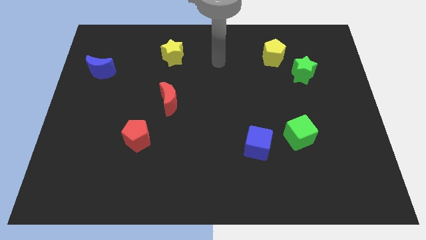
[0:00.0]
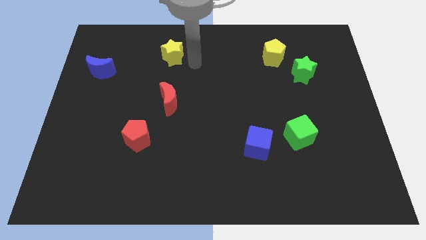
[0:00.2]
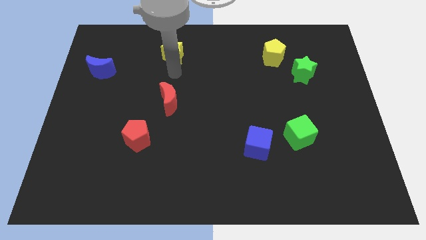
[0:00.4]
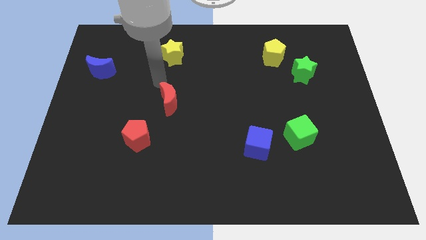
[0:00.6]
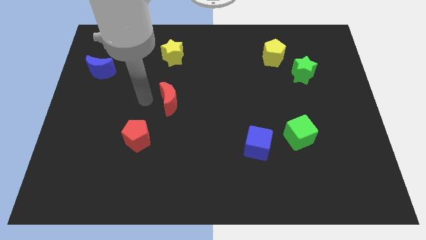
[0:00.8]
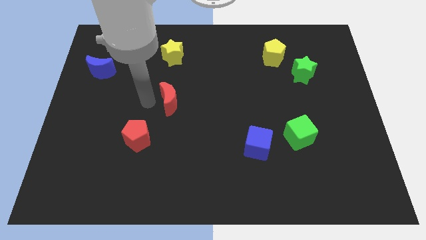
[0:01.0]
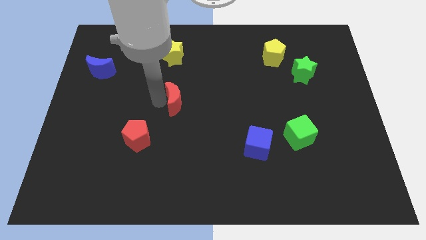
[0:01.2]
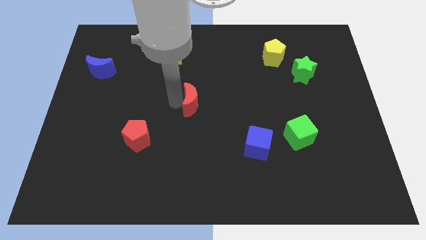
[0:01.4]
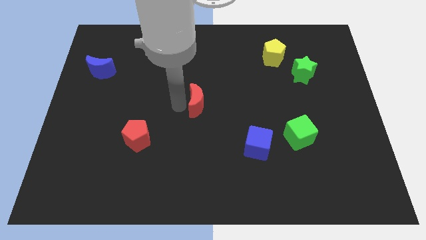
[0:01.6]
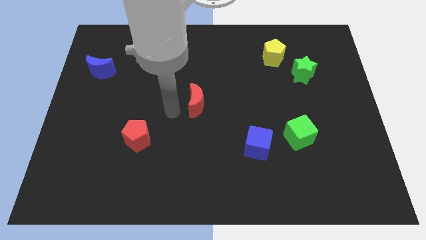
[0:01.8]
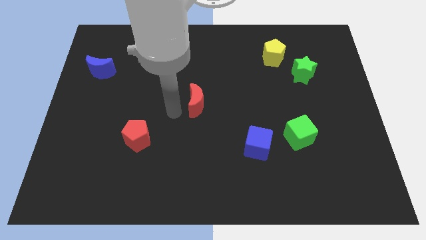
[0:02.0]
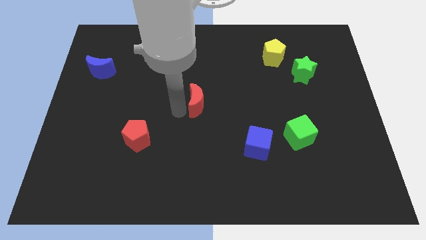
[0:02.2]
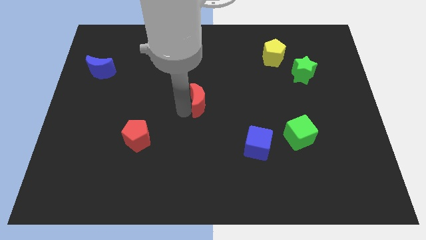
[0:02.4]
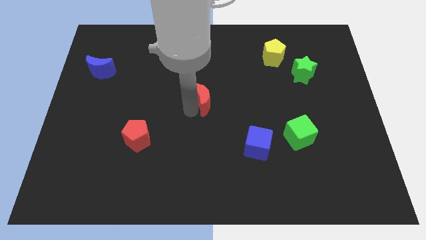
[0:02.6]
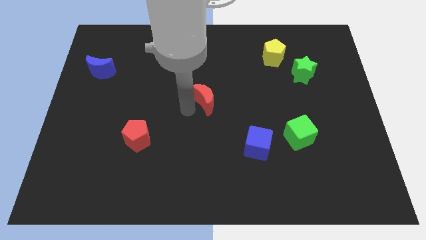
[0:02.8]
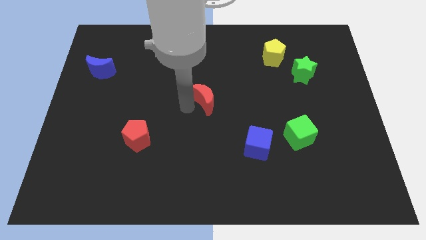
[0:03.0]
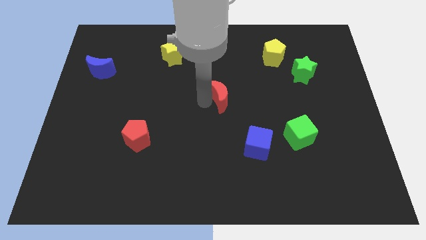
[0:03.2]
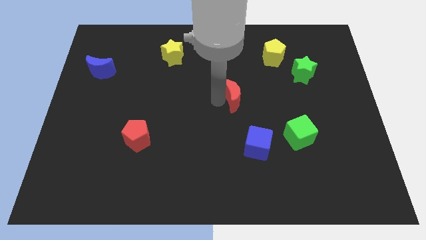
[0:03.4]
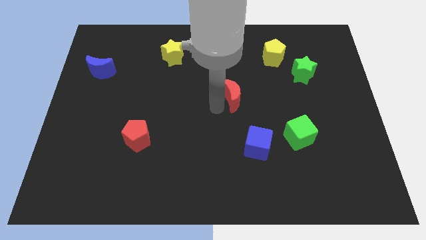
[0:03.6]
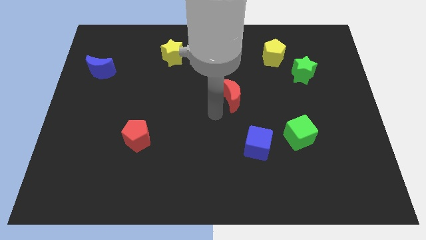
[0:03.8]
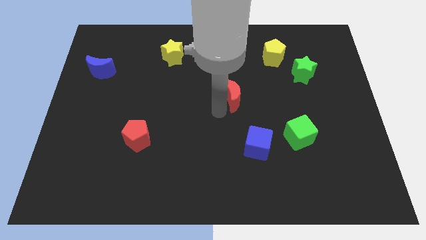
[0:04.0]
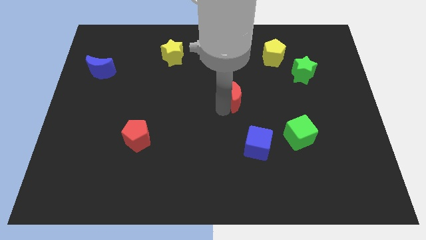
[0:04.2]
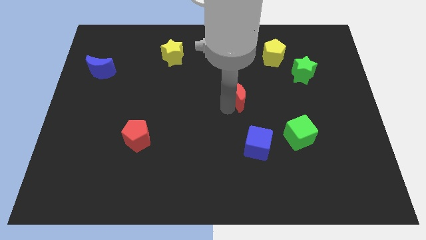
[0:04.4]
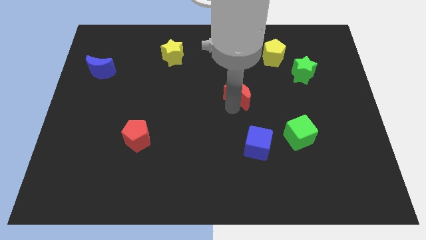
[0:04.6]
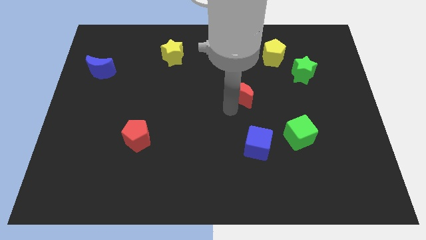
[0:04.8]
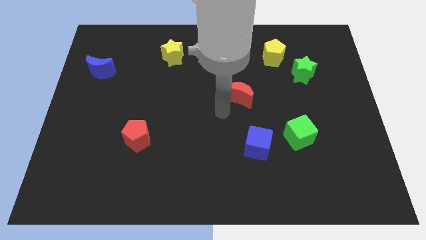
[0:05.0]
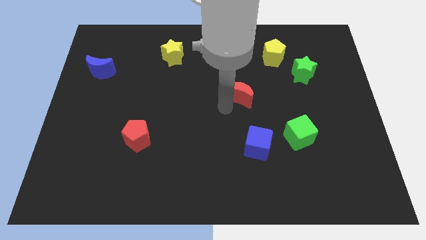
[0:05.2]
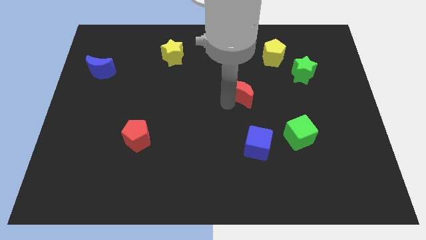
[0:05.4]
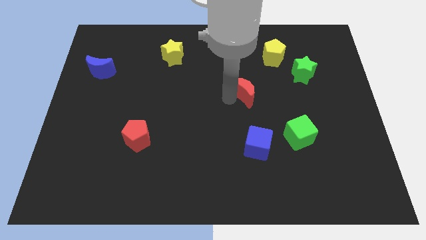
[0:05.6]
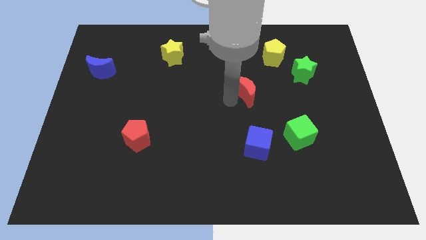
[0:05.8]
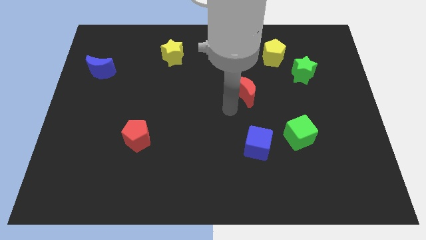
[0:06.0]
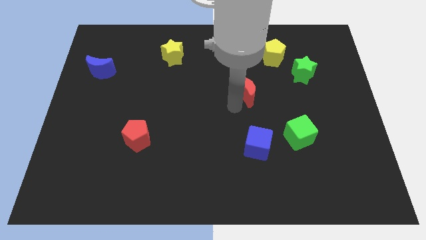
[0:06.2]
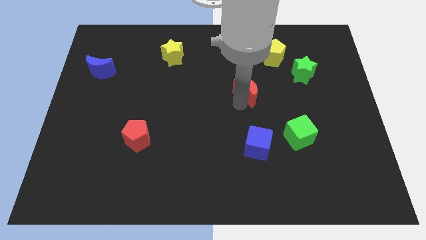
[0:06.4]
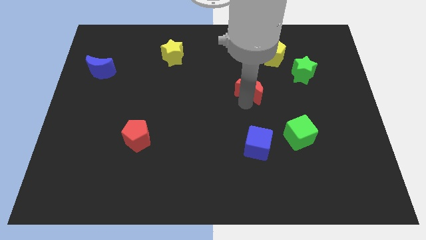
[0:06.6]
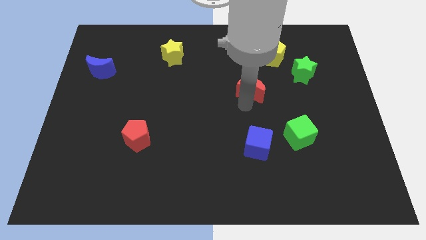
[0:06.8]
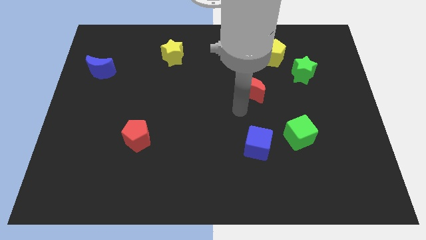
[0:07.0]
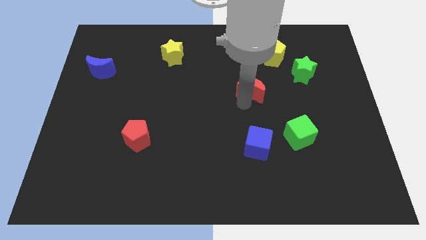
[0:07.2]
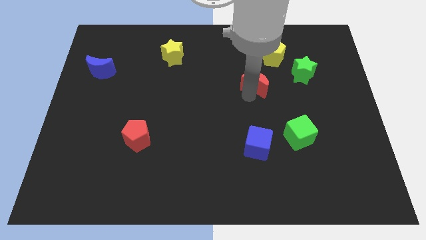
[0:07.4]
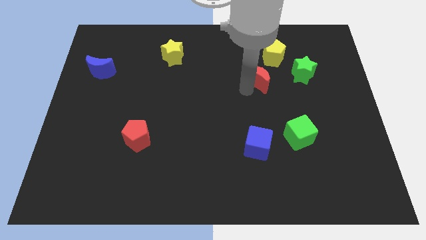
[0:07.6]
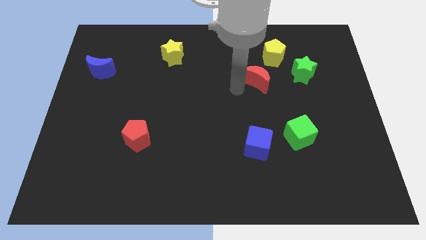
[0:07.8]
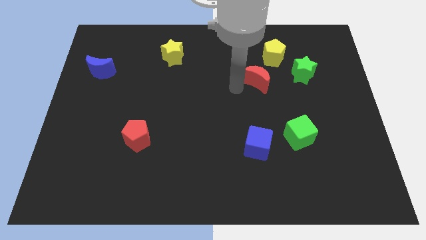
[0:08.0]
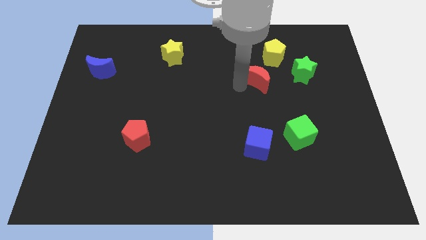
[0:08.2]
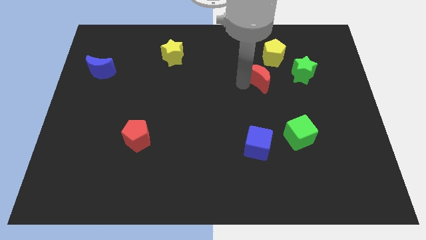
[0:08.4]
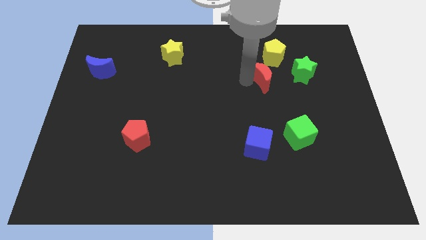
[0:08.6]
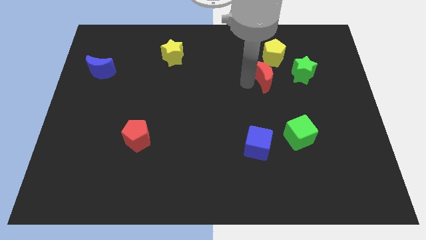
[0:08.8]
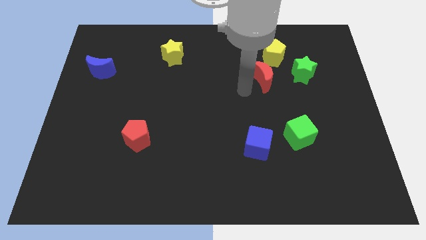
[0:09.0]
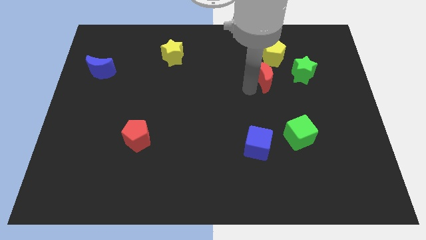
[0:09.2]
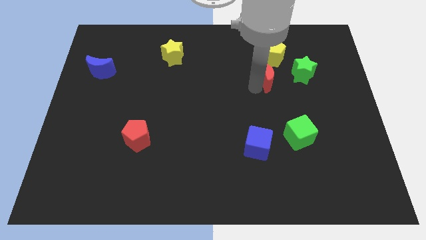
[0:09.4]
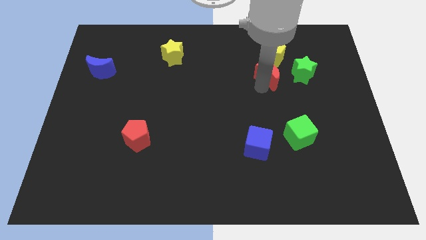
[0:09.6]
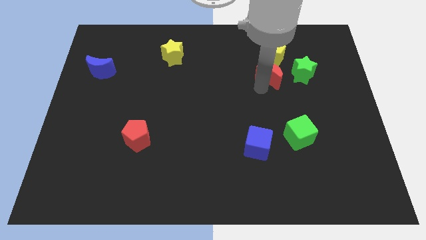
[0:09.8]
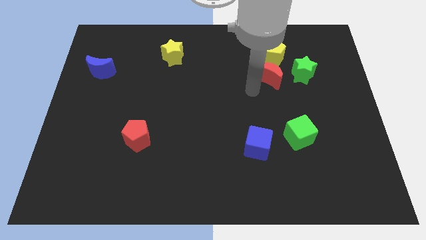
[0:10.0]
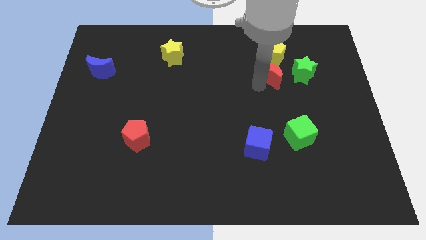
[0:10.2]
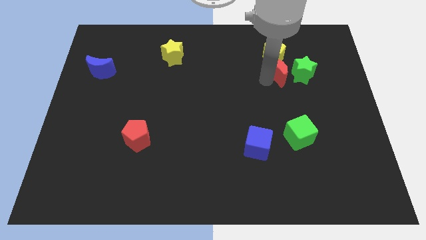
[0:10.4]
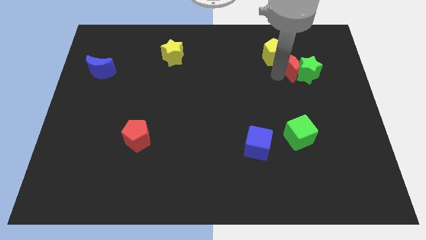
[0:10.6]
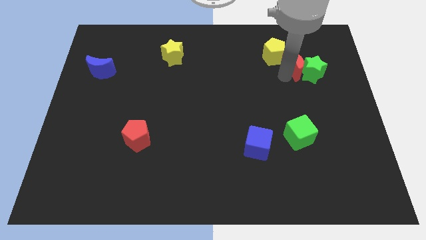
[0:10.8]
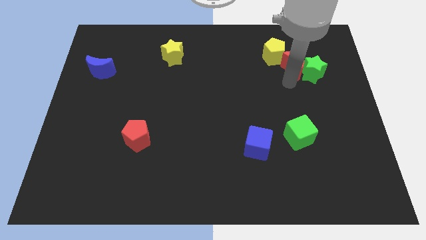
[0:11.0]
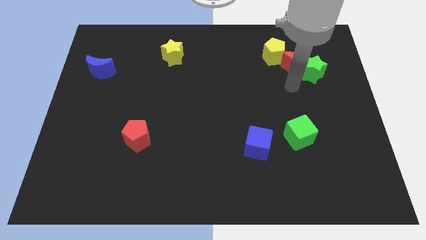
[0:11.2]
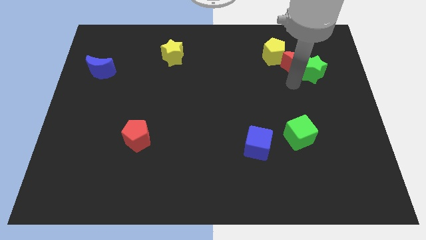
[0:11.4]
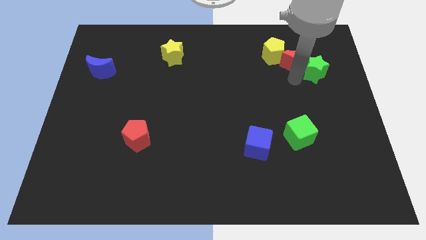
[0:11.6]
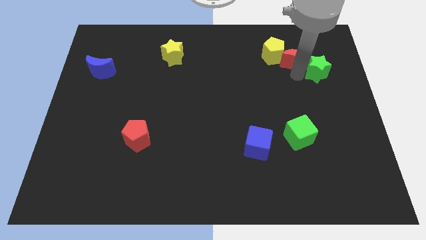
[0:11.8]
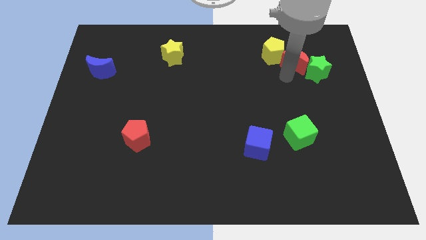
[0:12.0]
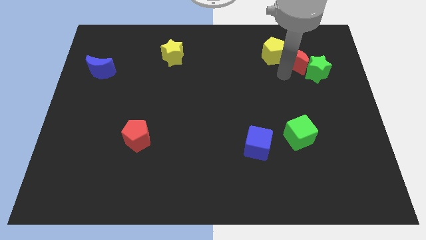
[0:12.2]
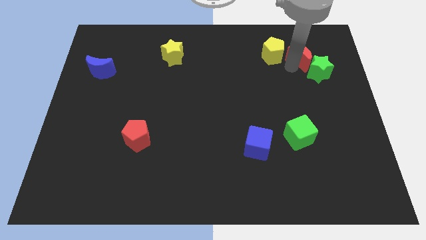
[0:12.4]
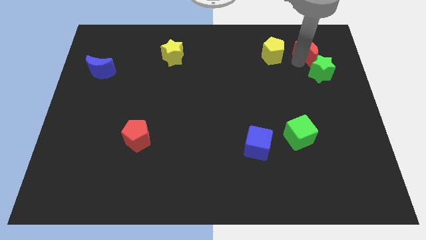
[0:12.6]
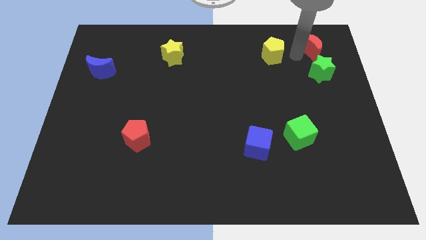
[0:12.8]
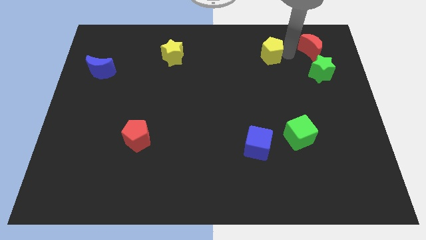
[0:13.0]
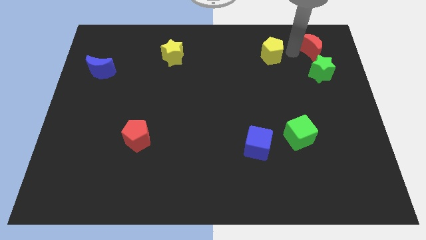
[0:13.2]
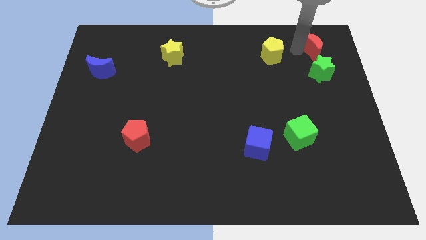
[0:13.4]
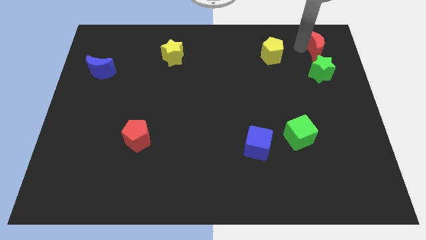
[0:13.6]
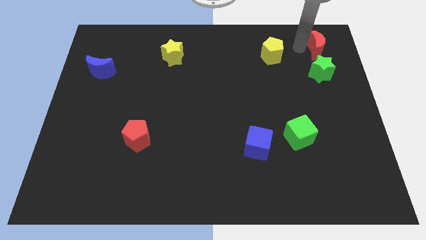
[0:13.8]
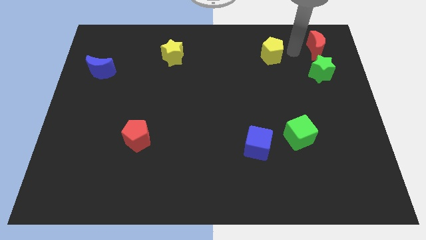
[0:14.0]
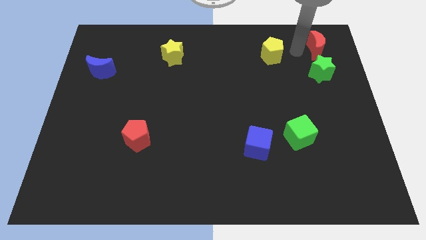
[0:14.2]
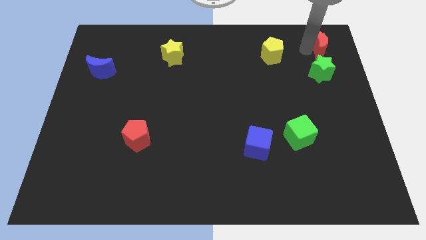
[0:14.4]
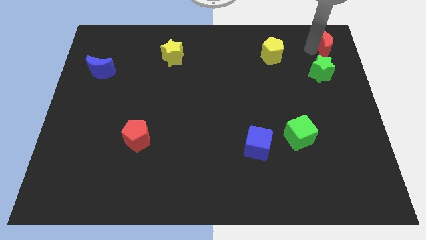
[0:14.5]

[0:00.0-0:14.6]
slide the red moon to the upper right corner
